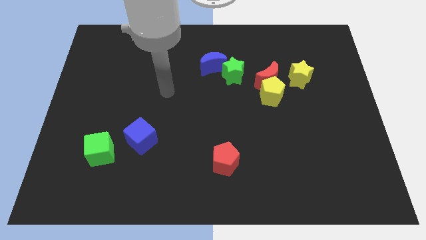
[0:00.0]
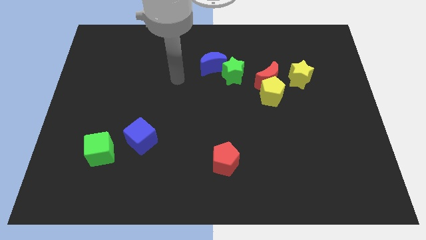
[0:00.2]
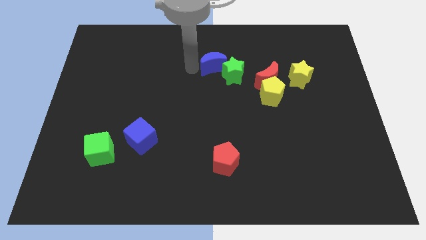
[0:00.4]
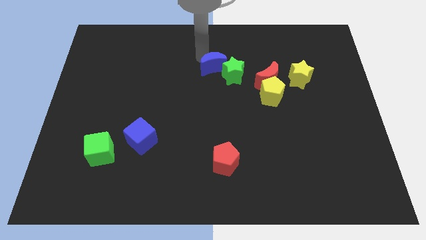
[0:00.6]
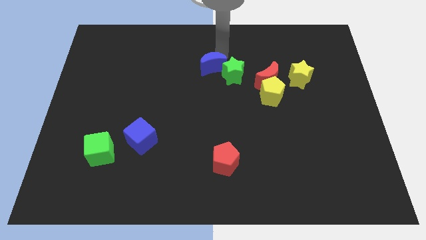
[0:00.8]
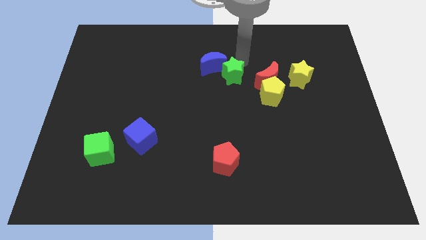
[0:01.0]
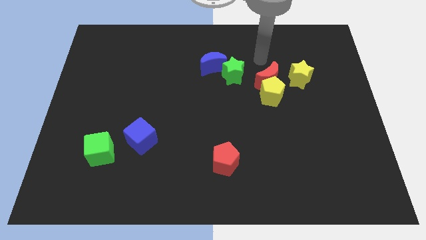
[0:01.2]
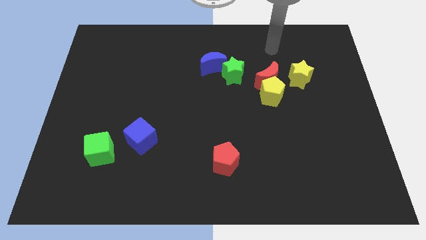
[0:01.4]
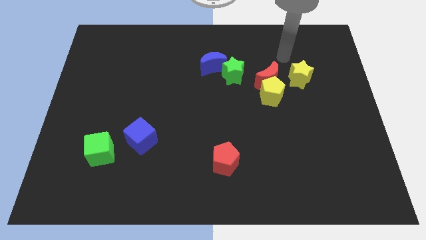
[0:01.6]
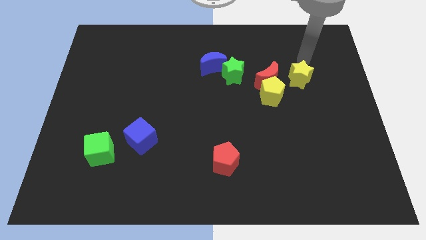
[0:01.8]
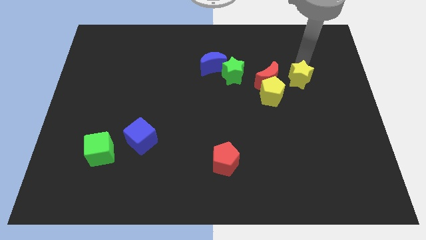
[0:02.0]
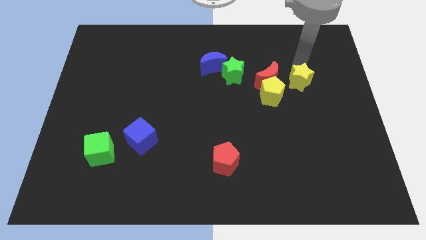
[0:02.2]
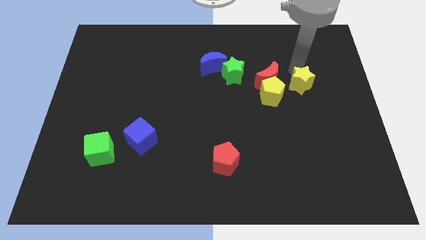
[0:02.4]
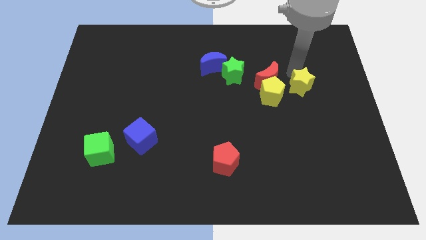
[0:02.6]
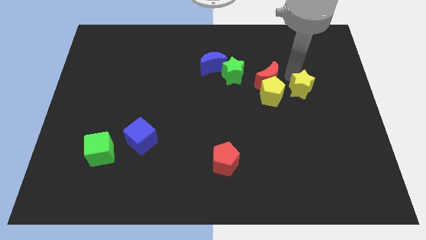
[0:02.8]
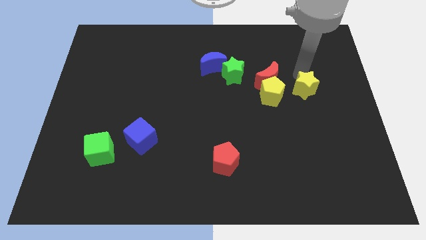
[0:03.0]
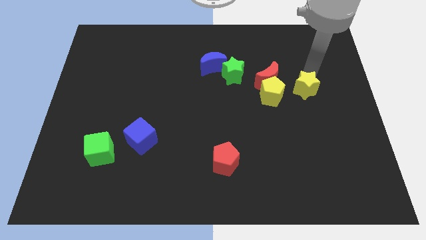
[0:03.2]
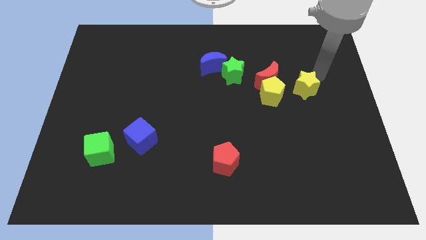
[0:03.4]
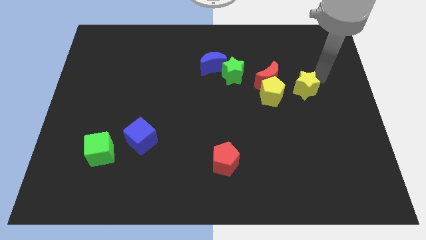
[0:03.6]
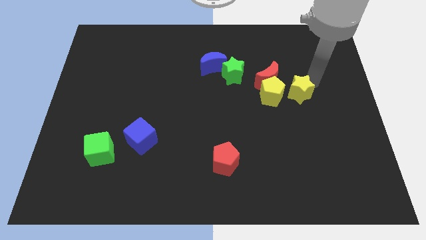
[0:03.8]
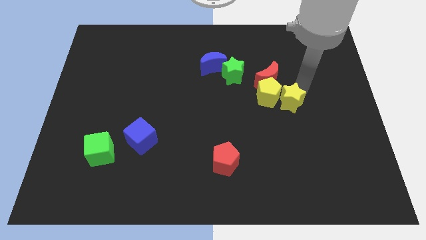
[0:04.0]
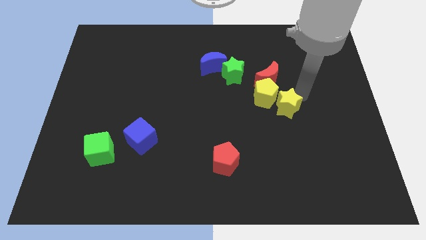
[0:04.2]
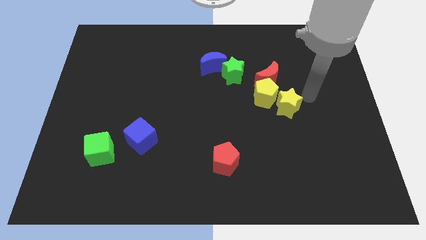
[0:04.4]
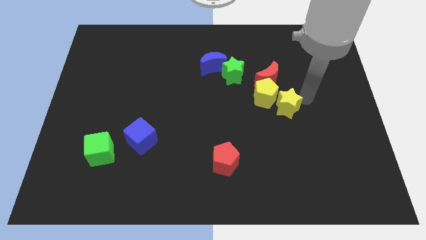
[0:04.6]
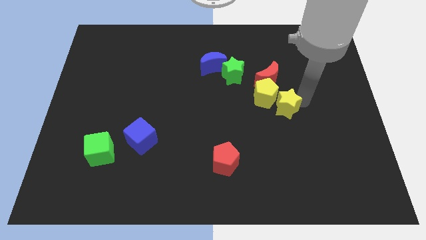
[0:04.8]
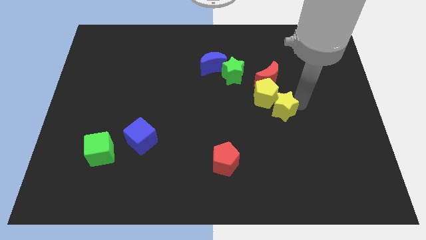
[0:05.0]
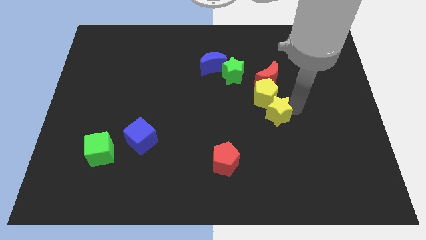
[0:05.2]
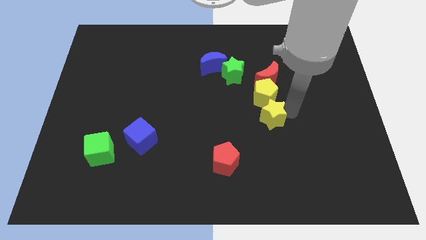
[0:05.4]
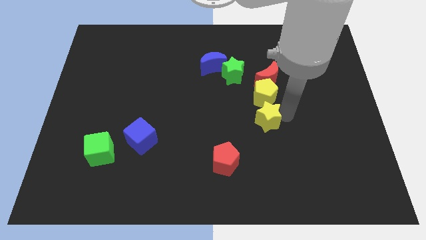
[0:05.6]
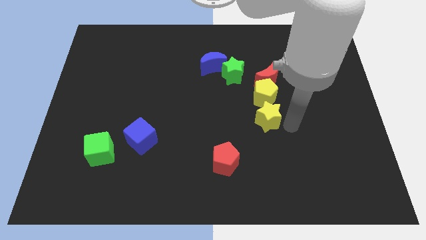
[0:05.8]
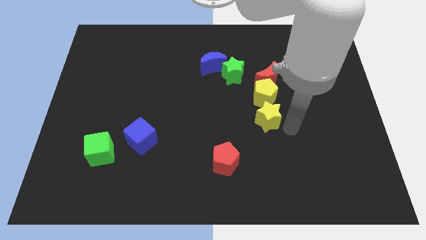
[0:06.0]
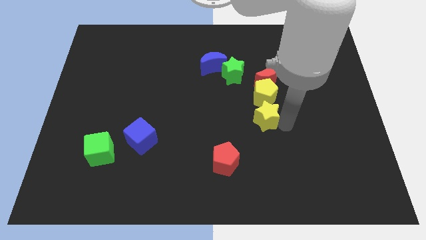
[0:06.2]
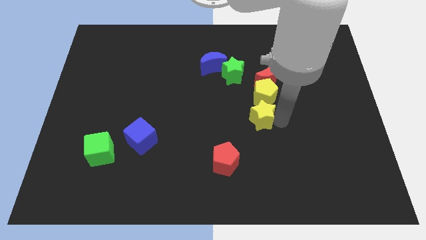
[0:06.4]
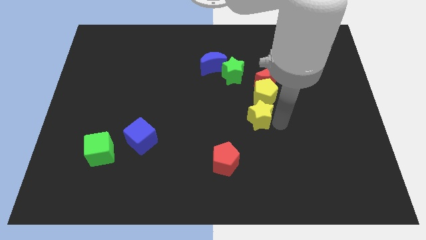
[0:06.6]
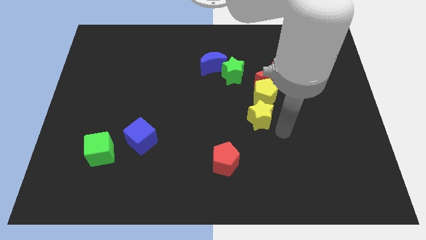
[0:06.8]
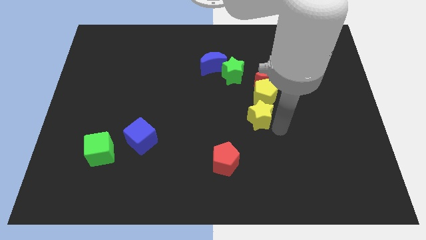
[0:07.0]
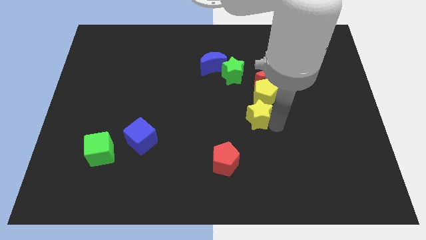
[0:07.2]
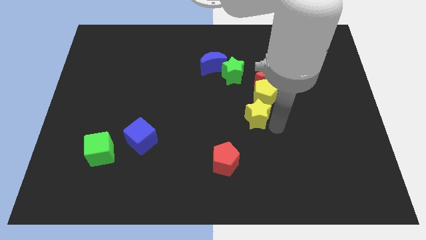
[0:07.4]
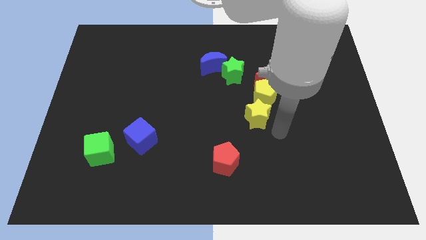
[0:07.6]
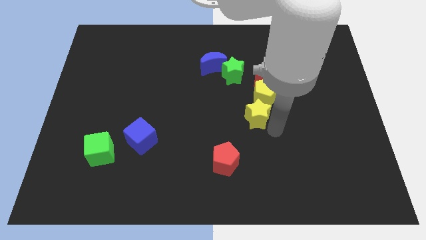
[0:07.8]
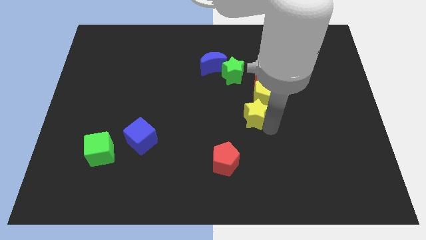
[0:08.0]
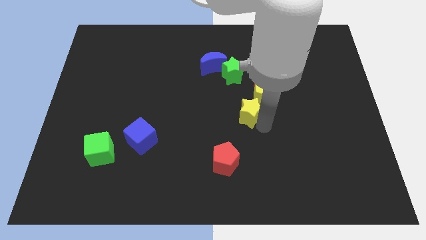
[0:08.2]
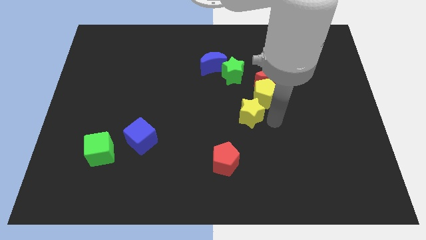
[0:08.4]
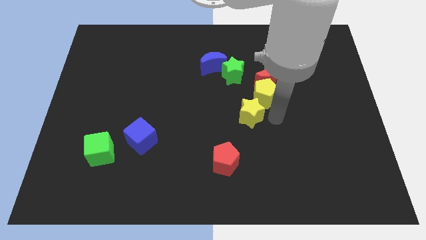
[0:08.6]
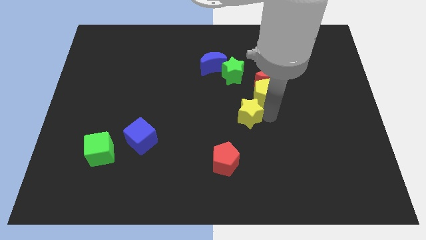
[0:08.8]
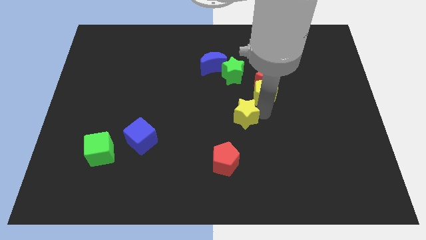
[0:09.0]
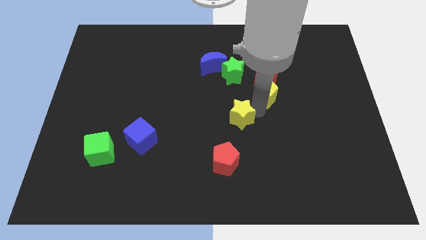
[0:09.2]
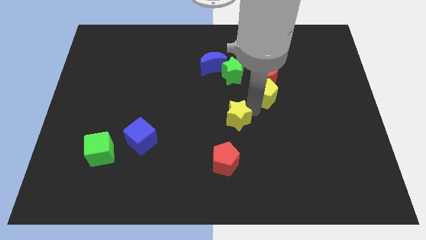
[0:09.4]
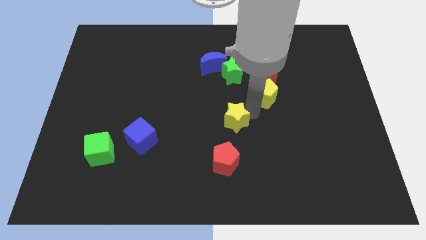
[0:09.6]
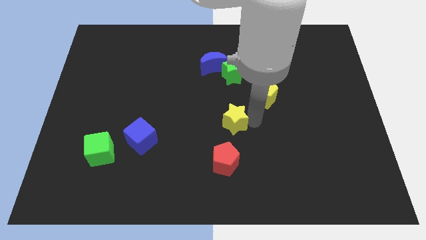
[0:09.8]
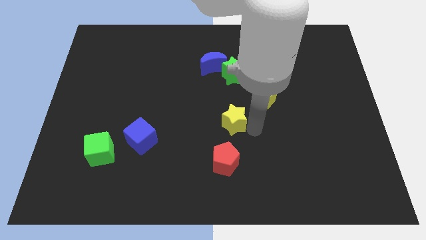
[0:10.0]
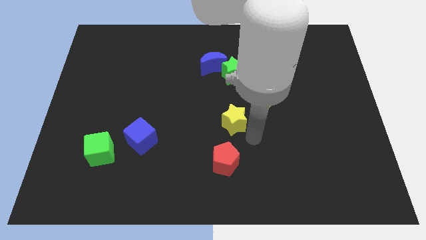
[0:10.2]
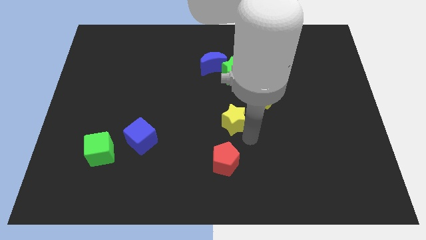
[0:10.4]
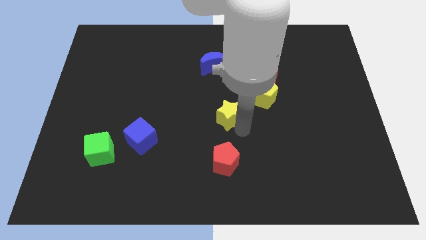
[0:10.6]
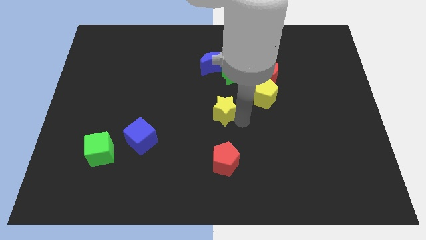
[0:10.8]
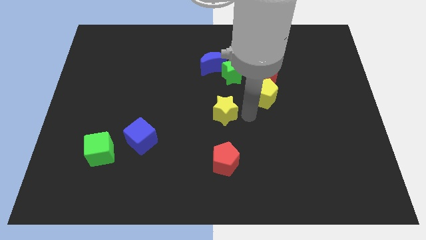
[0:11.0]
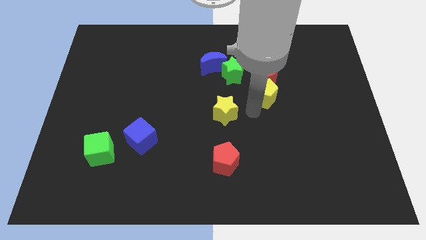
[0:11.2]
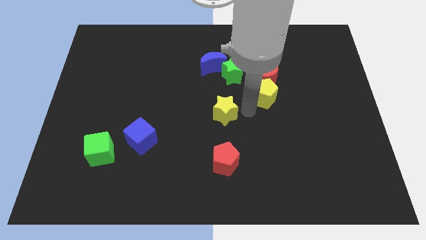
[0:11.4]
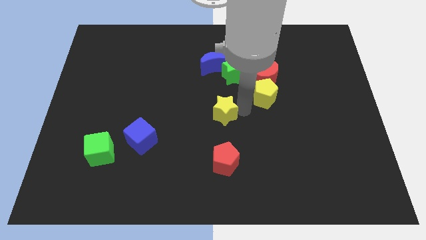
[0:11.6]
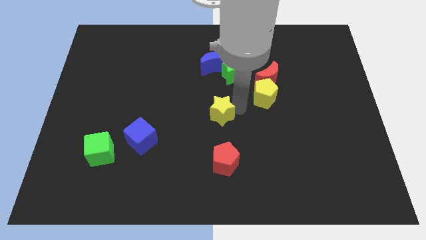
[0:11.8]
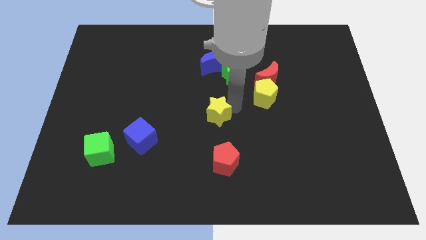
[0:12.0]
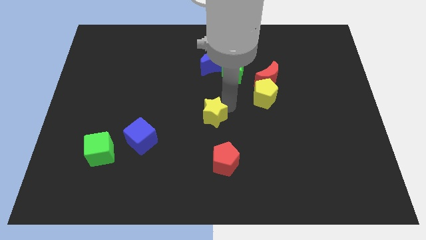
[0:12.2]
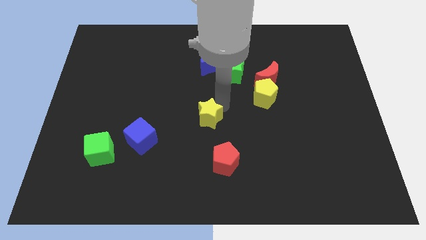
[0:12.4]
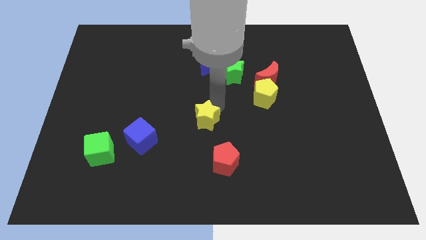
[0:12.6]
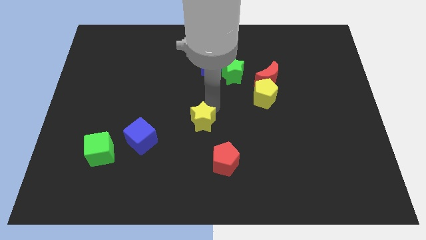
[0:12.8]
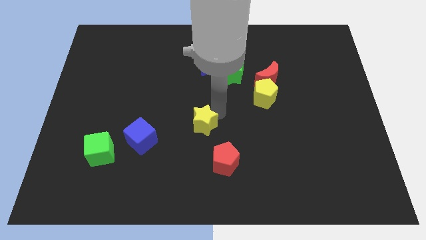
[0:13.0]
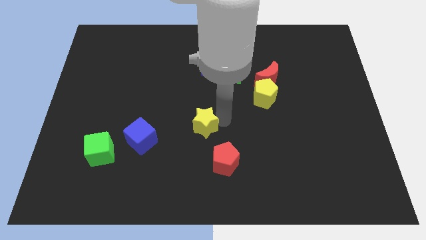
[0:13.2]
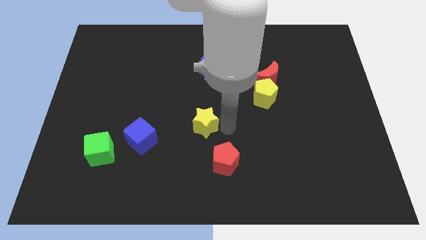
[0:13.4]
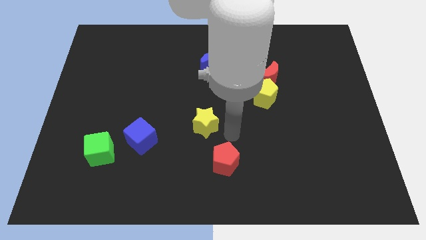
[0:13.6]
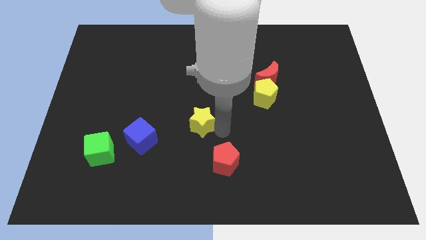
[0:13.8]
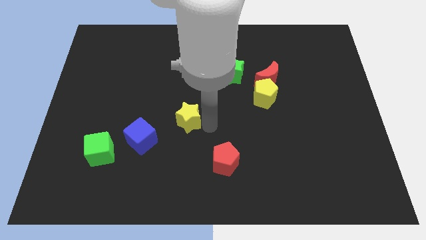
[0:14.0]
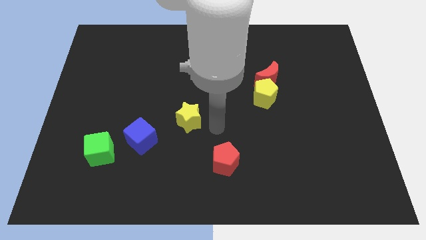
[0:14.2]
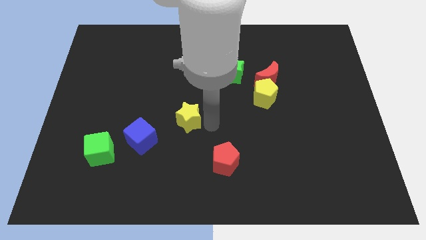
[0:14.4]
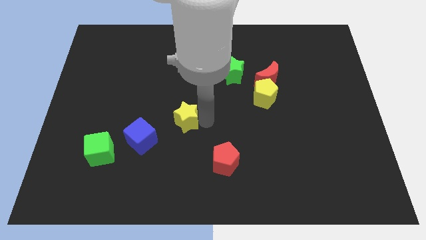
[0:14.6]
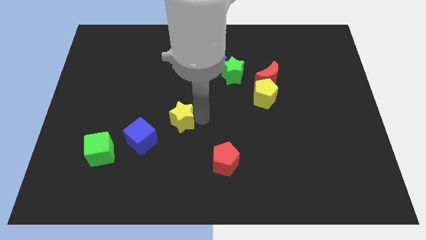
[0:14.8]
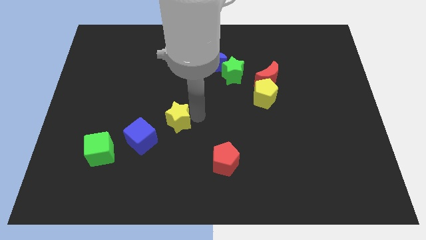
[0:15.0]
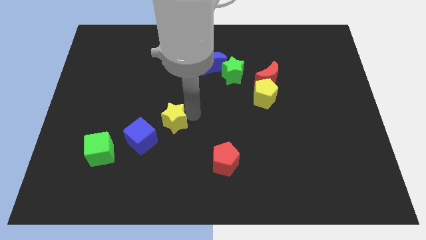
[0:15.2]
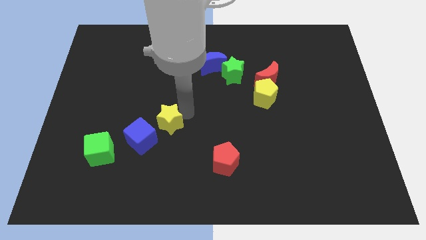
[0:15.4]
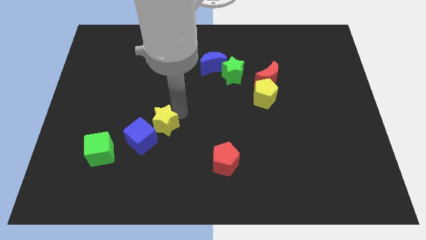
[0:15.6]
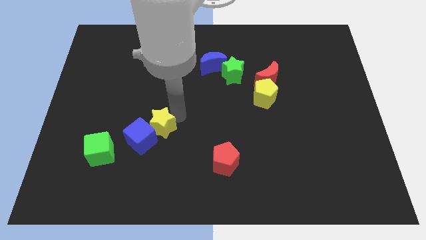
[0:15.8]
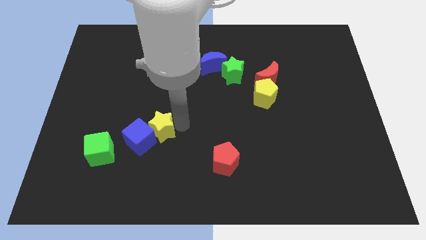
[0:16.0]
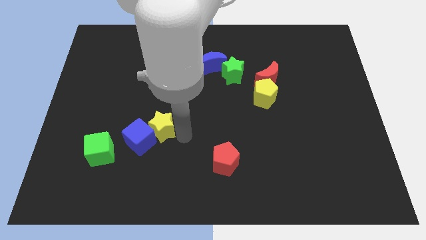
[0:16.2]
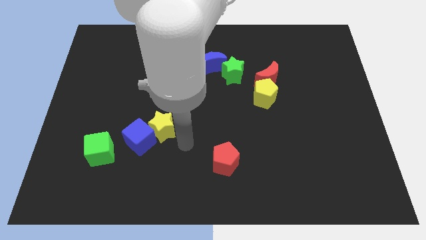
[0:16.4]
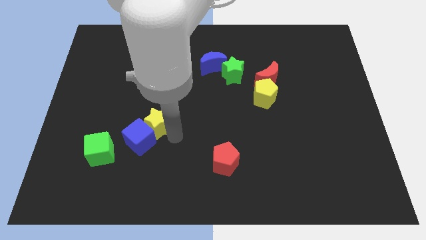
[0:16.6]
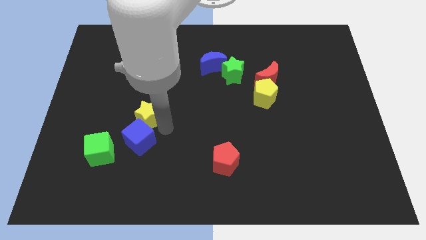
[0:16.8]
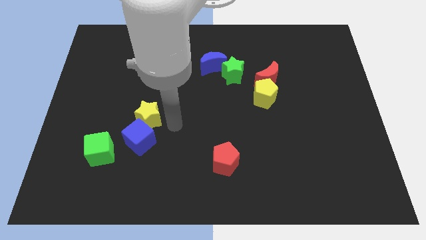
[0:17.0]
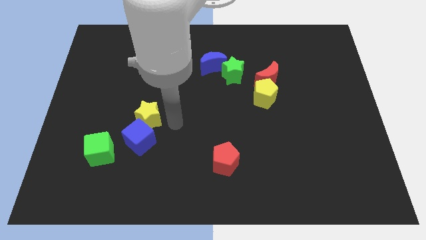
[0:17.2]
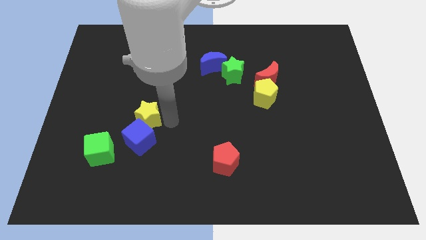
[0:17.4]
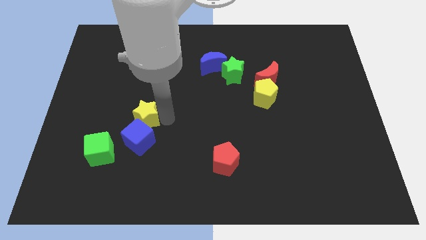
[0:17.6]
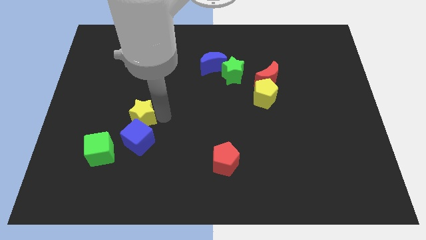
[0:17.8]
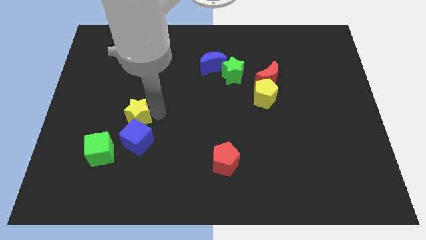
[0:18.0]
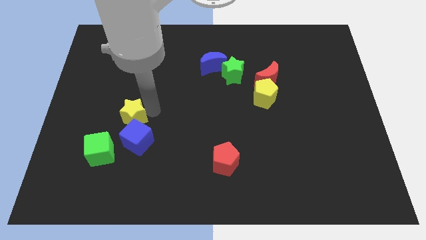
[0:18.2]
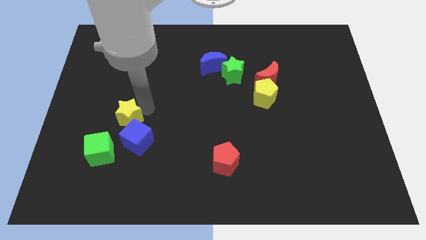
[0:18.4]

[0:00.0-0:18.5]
put the yellow star to the top side of the green cube
